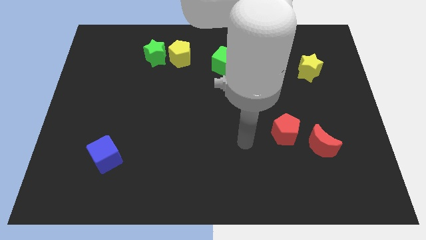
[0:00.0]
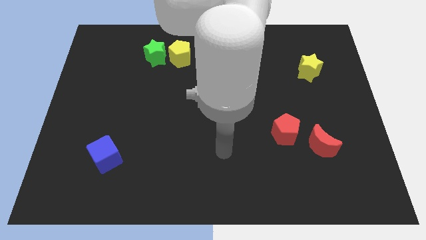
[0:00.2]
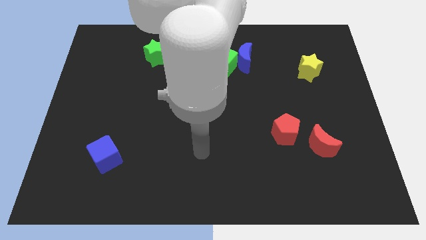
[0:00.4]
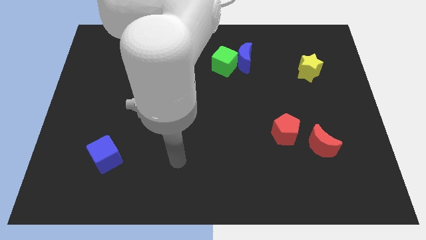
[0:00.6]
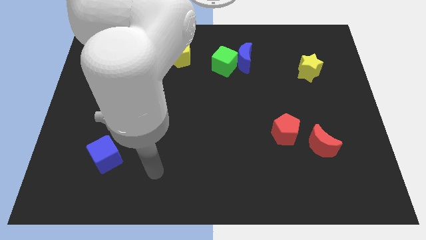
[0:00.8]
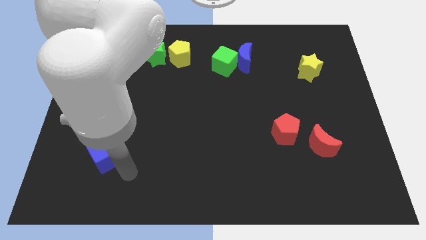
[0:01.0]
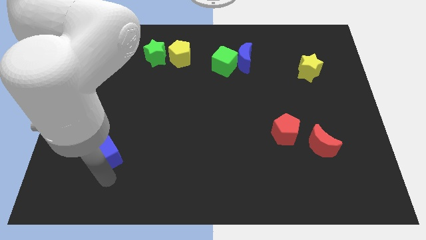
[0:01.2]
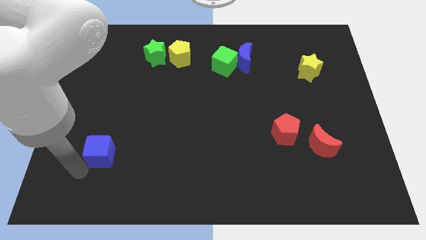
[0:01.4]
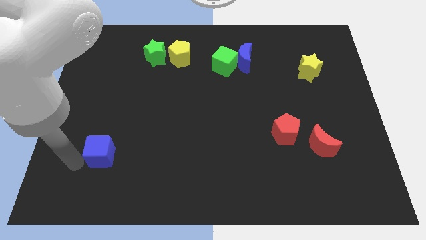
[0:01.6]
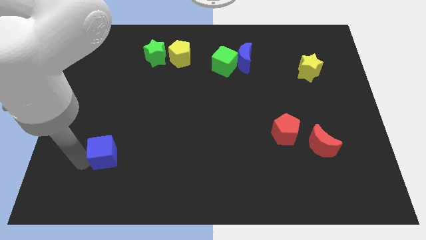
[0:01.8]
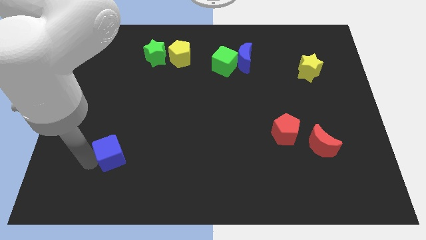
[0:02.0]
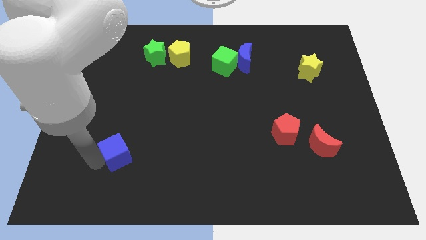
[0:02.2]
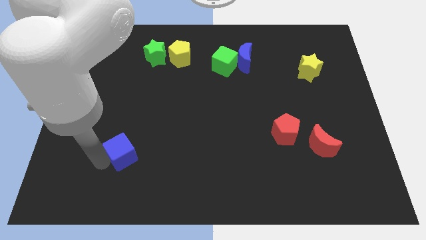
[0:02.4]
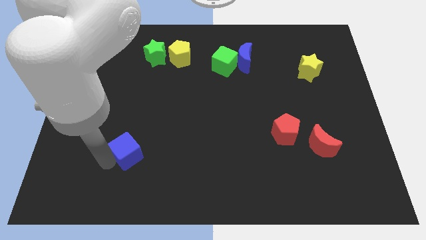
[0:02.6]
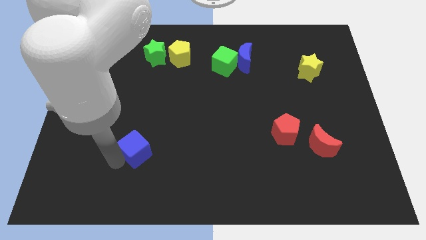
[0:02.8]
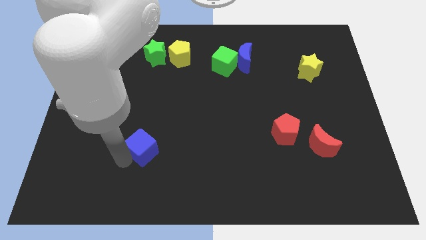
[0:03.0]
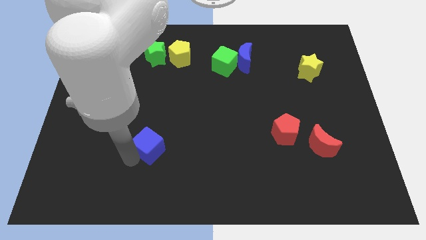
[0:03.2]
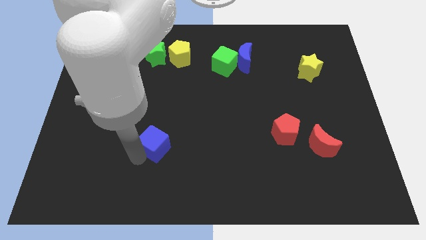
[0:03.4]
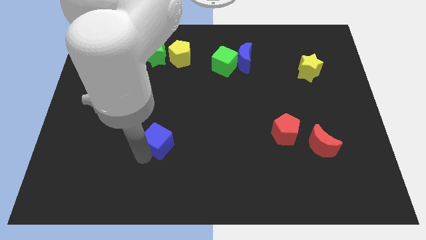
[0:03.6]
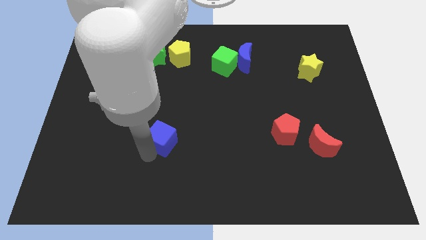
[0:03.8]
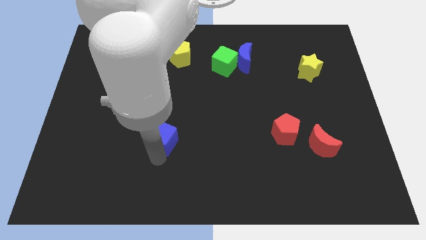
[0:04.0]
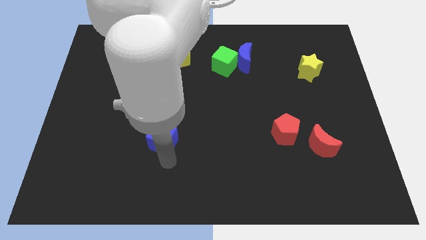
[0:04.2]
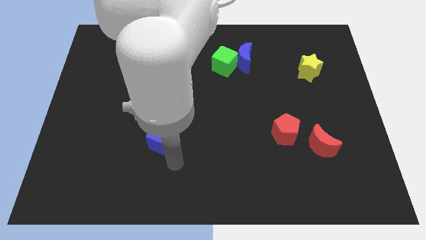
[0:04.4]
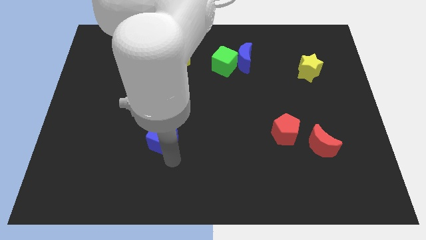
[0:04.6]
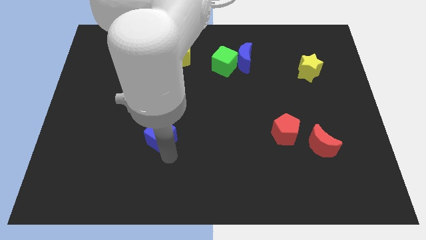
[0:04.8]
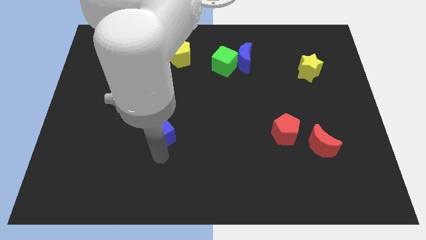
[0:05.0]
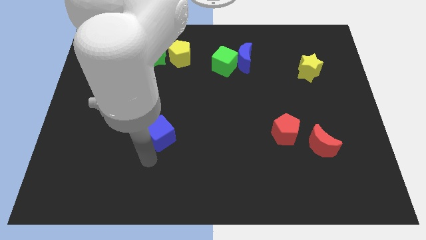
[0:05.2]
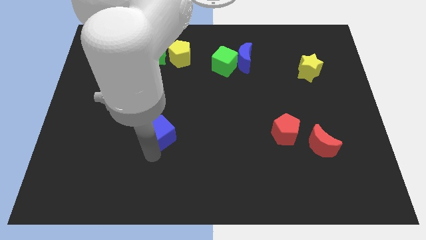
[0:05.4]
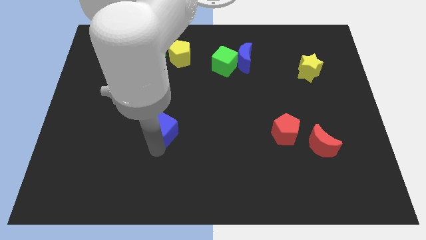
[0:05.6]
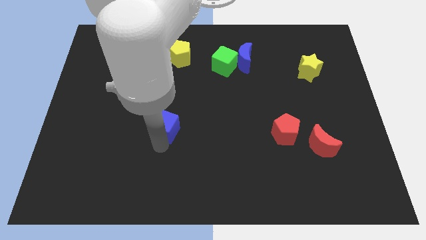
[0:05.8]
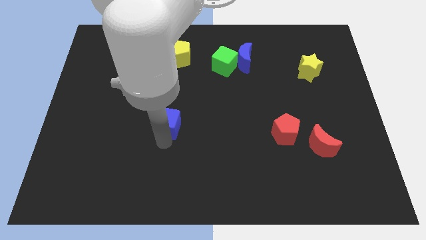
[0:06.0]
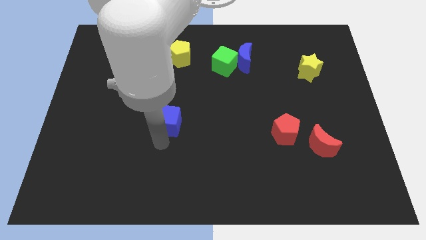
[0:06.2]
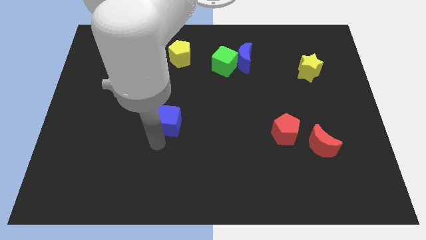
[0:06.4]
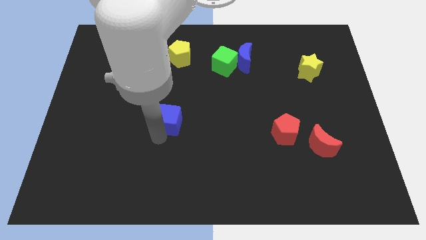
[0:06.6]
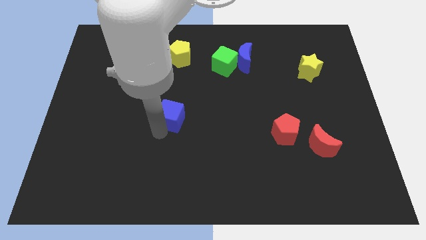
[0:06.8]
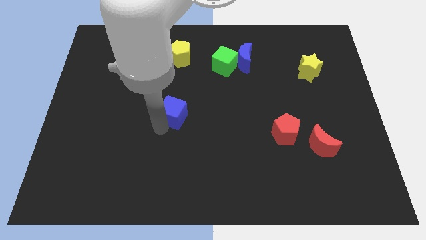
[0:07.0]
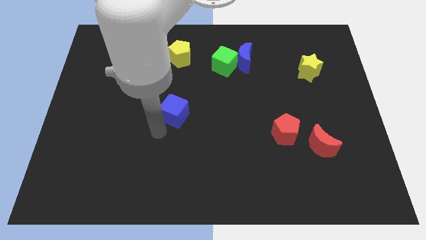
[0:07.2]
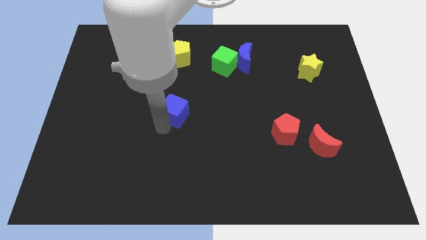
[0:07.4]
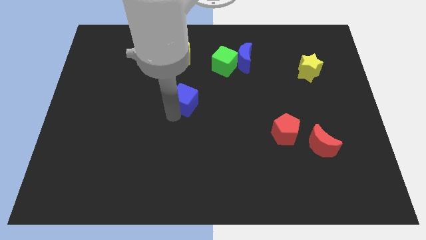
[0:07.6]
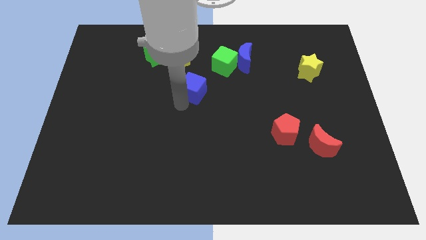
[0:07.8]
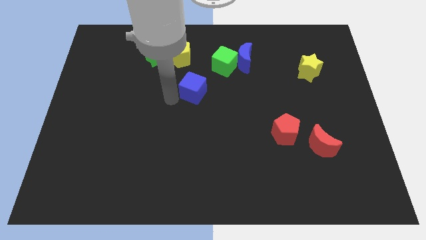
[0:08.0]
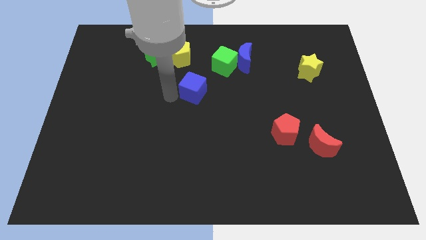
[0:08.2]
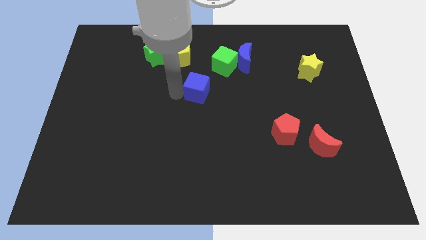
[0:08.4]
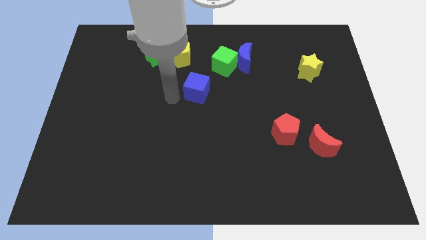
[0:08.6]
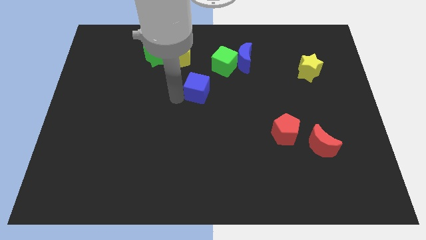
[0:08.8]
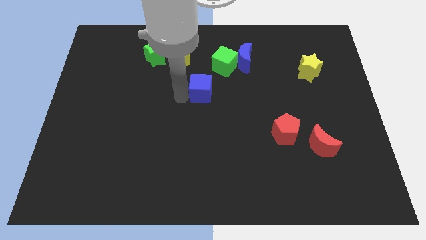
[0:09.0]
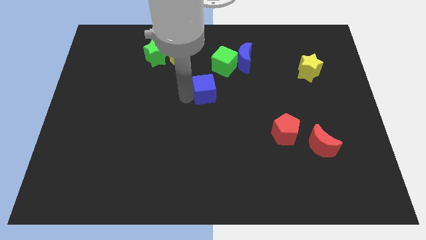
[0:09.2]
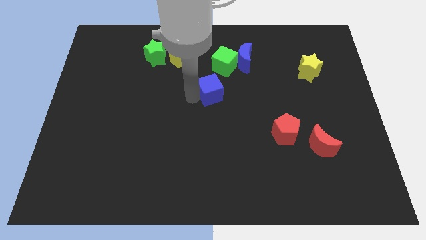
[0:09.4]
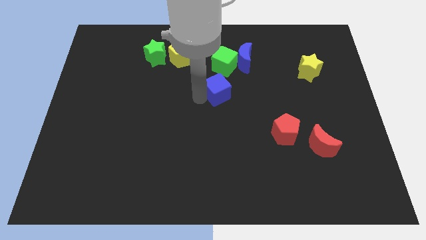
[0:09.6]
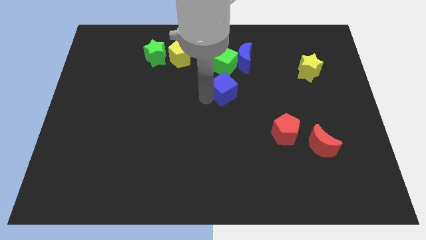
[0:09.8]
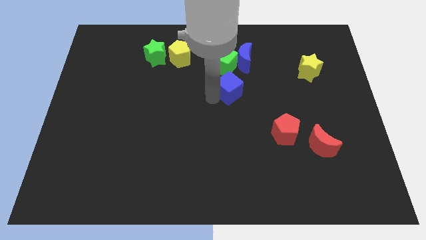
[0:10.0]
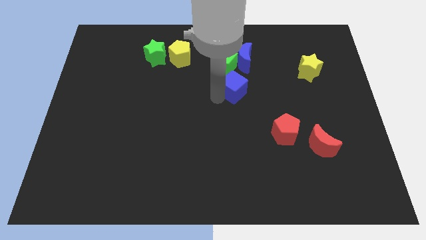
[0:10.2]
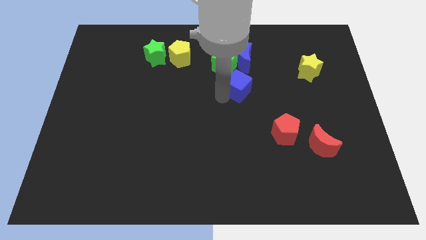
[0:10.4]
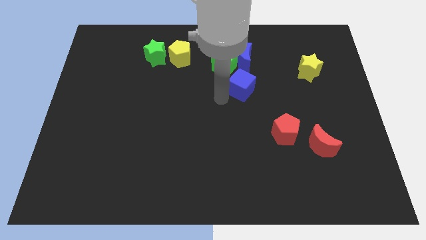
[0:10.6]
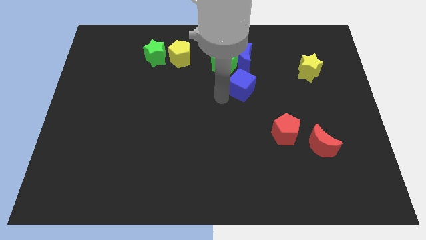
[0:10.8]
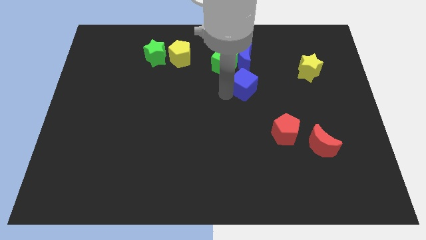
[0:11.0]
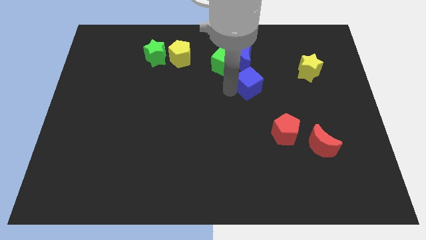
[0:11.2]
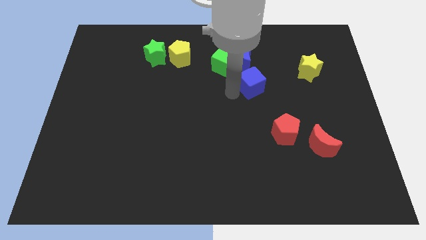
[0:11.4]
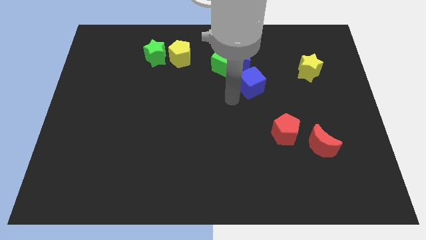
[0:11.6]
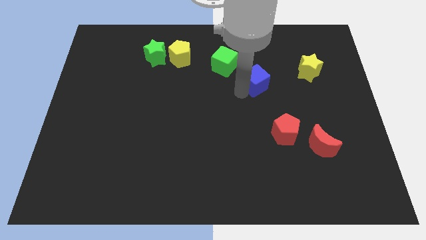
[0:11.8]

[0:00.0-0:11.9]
move the blue cube to the bottom right side of the blue moon

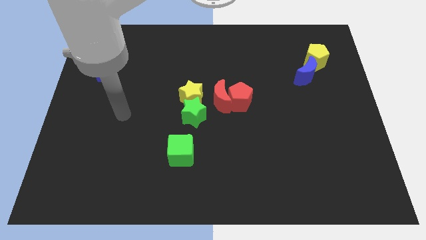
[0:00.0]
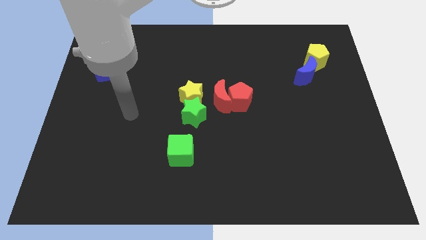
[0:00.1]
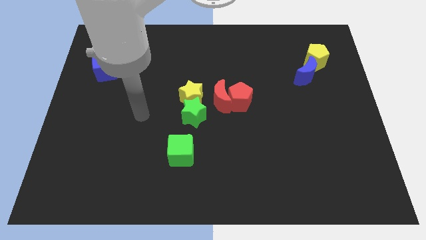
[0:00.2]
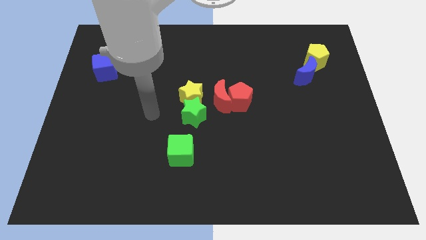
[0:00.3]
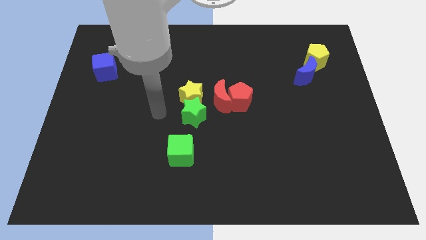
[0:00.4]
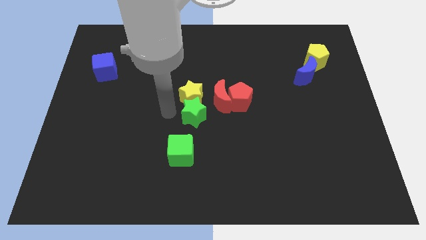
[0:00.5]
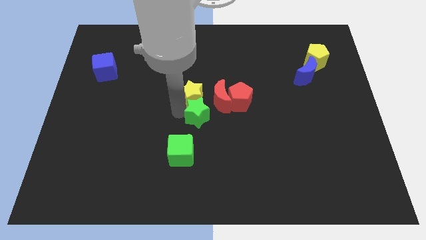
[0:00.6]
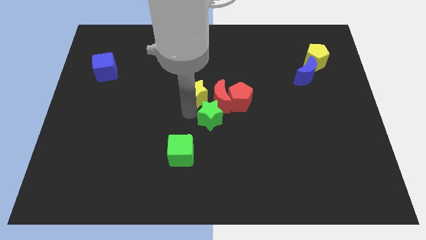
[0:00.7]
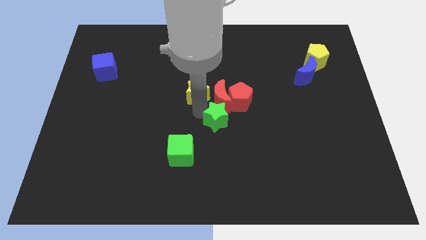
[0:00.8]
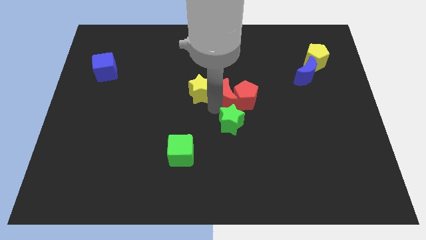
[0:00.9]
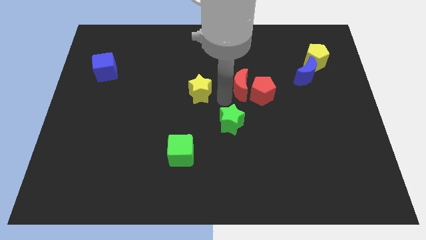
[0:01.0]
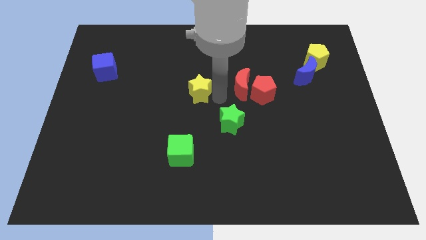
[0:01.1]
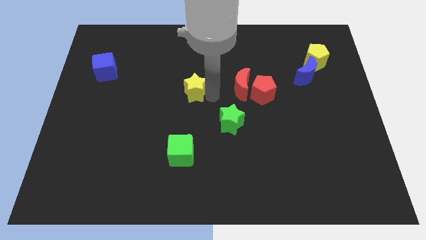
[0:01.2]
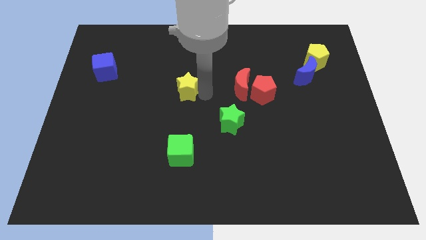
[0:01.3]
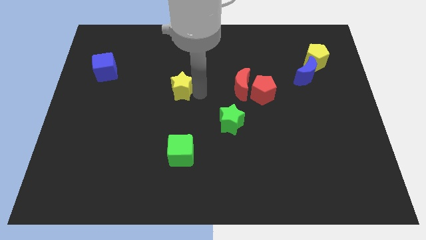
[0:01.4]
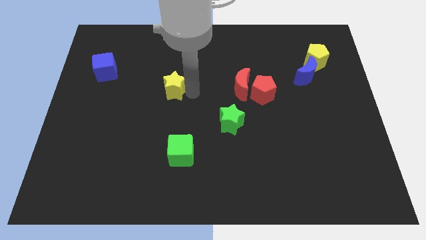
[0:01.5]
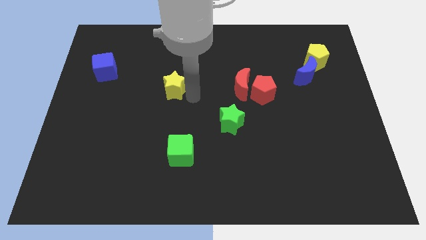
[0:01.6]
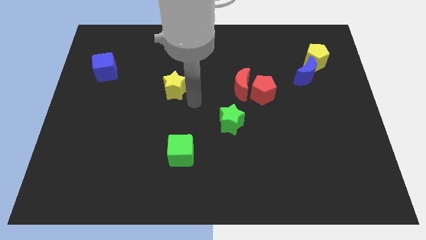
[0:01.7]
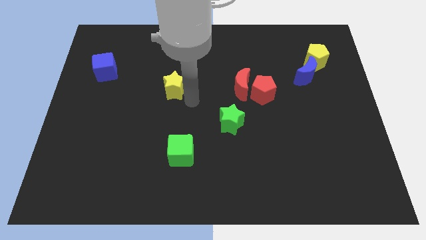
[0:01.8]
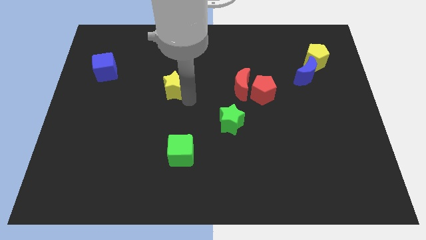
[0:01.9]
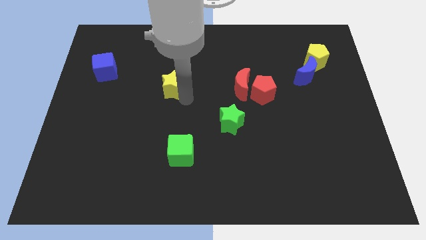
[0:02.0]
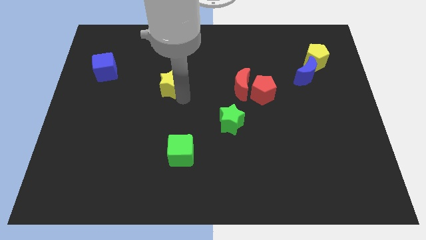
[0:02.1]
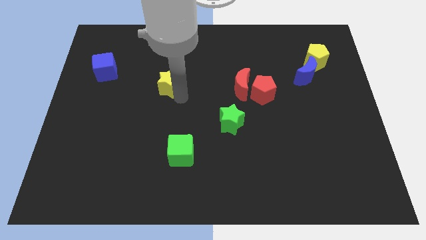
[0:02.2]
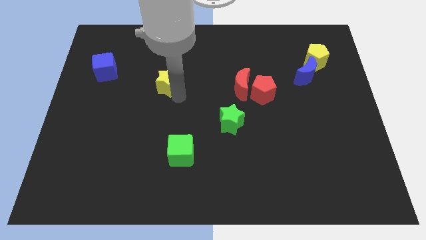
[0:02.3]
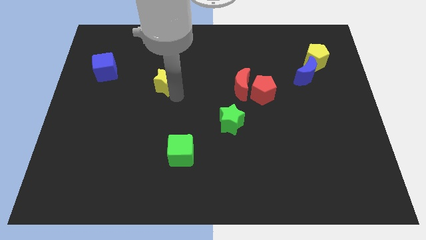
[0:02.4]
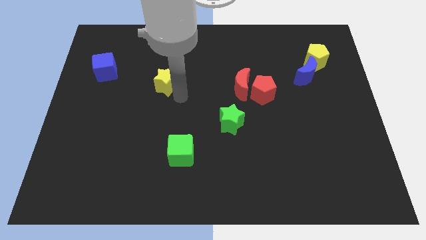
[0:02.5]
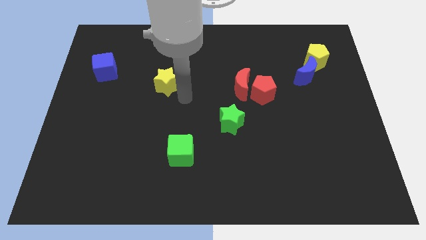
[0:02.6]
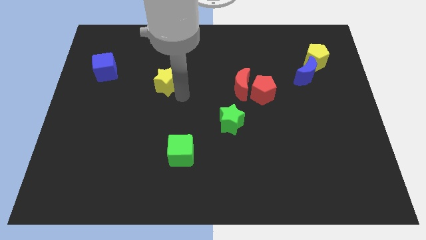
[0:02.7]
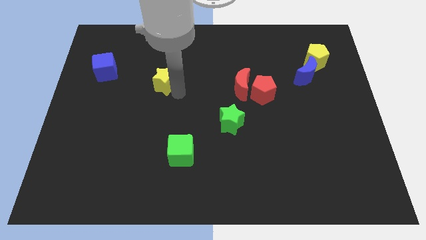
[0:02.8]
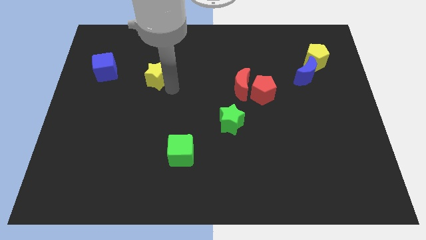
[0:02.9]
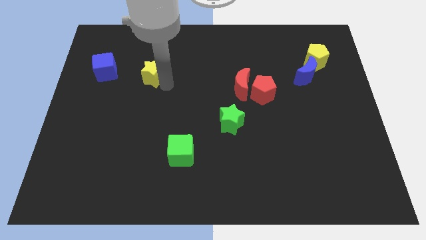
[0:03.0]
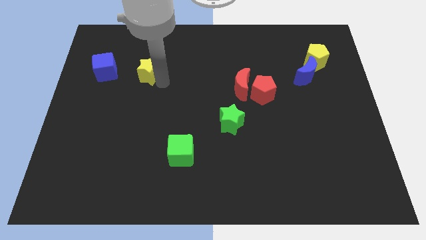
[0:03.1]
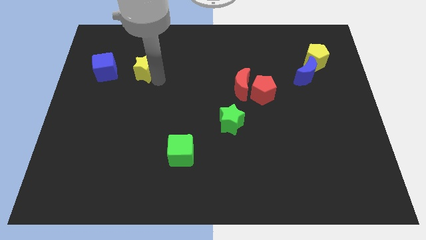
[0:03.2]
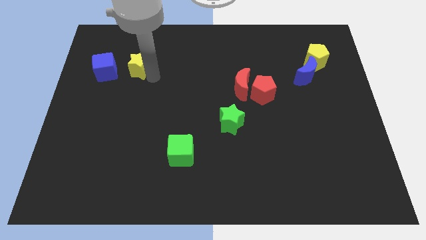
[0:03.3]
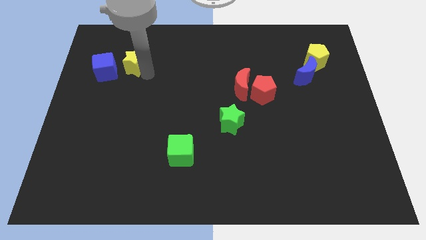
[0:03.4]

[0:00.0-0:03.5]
put the yellow star to the top right of the blue cube
